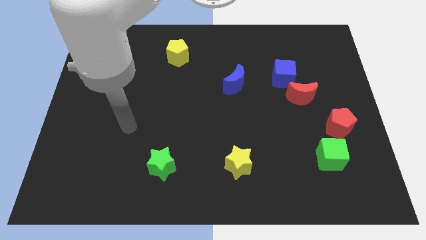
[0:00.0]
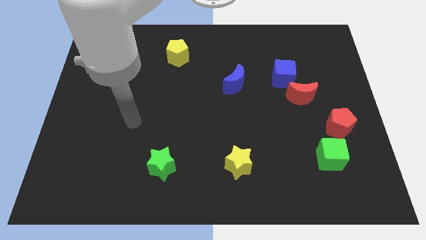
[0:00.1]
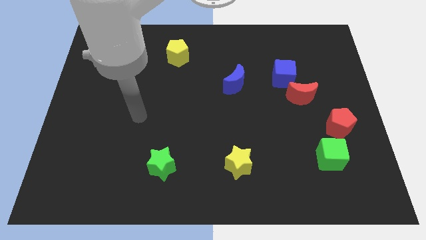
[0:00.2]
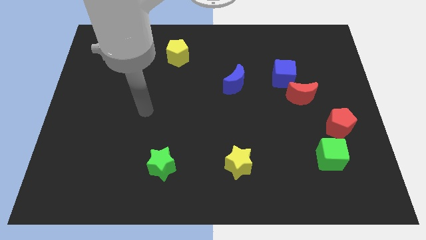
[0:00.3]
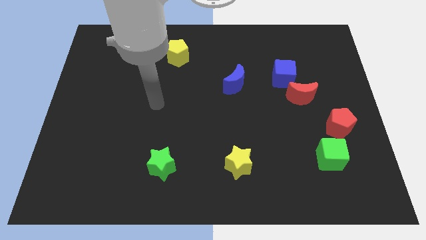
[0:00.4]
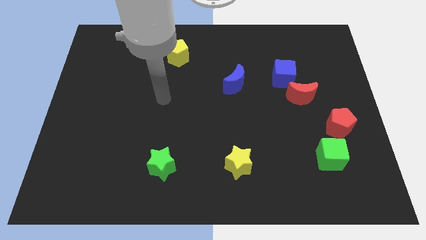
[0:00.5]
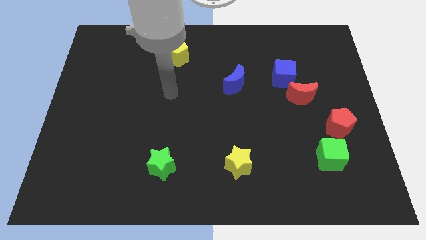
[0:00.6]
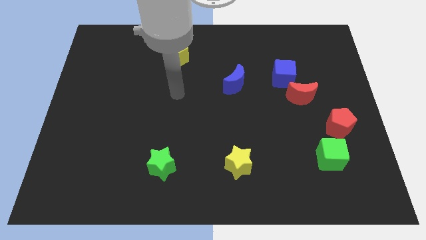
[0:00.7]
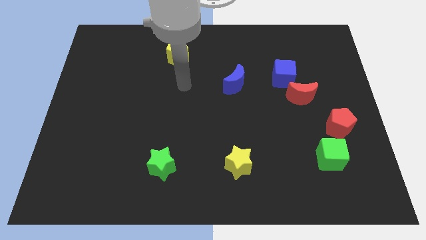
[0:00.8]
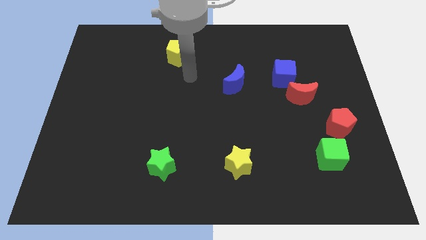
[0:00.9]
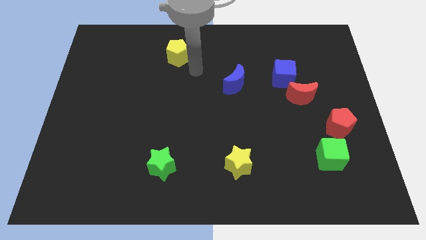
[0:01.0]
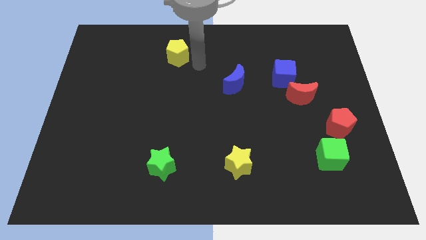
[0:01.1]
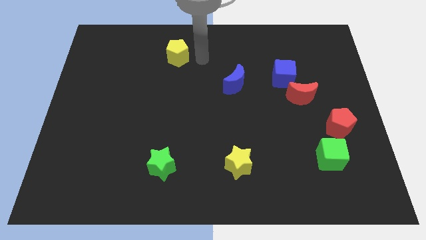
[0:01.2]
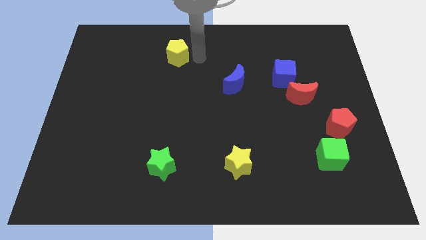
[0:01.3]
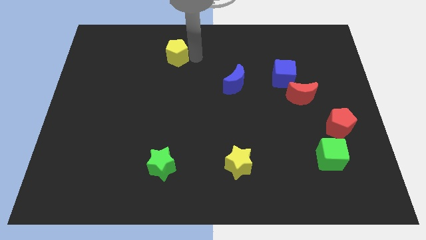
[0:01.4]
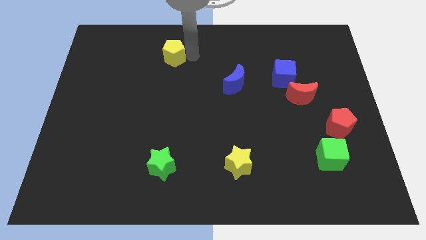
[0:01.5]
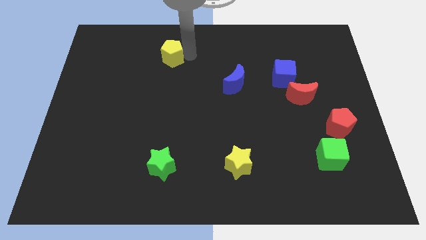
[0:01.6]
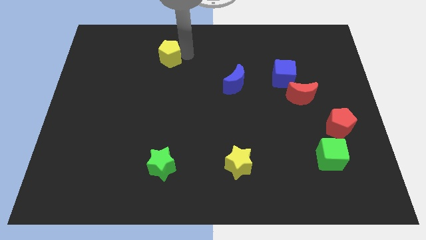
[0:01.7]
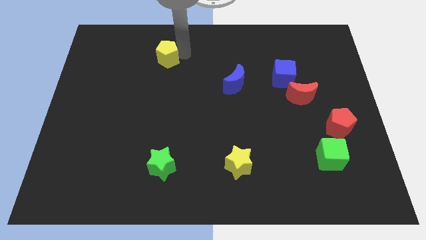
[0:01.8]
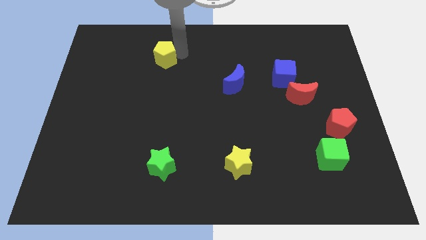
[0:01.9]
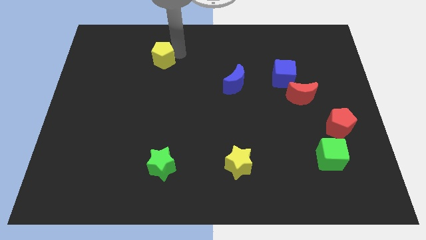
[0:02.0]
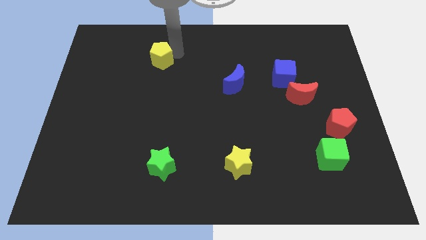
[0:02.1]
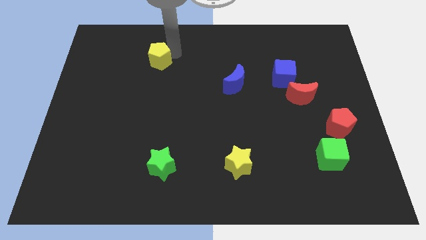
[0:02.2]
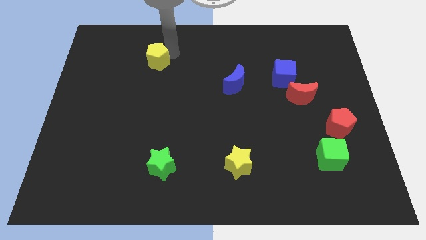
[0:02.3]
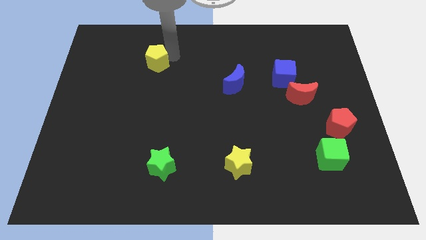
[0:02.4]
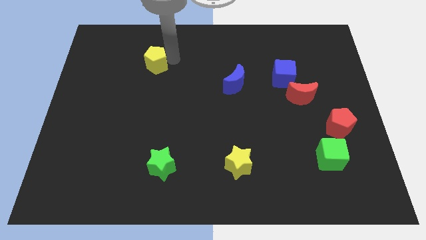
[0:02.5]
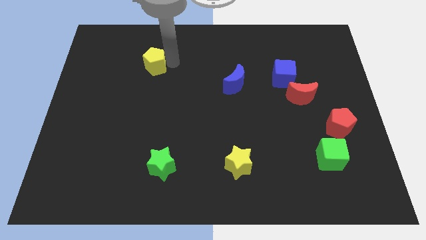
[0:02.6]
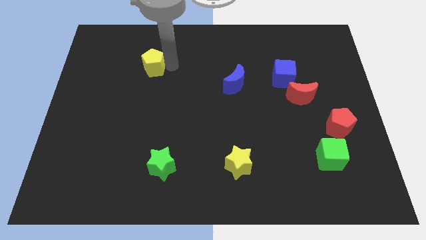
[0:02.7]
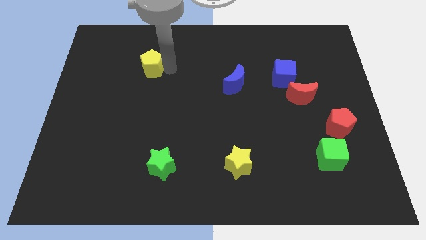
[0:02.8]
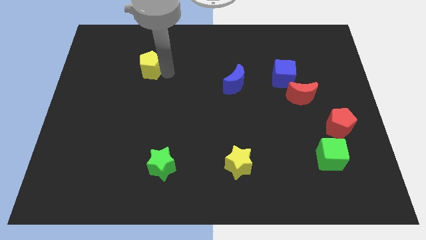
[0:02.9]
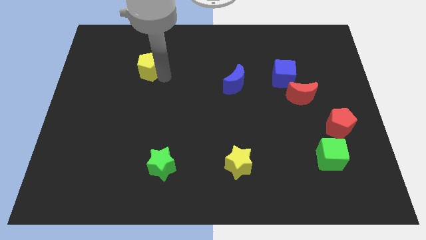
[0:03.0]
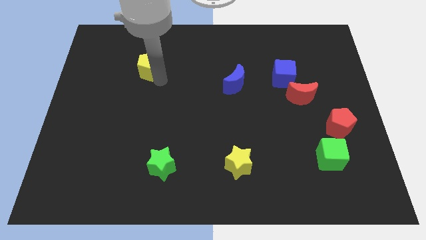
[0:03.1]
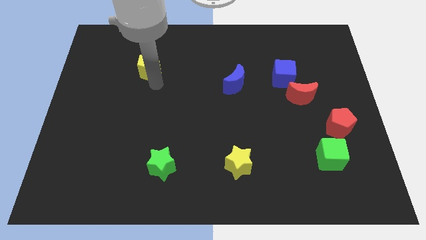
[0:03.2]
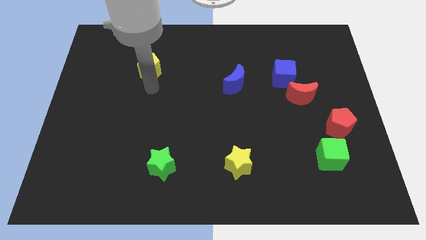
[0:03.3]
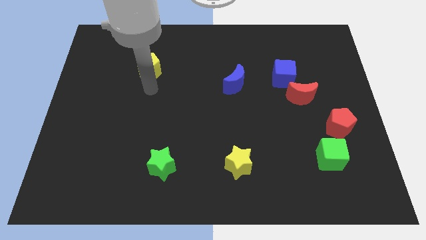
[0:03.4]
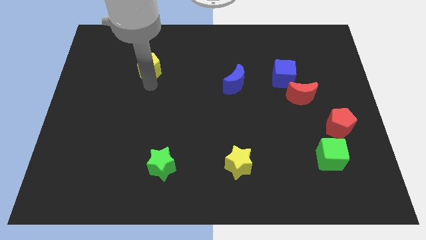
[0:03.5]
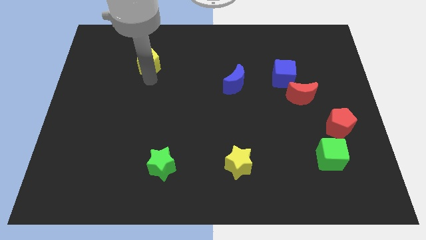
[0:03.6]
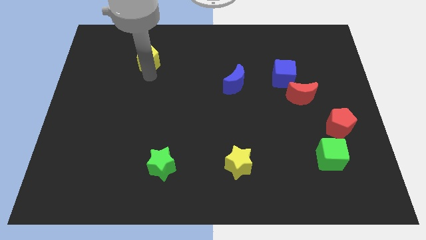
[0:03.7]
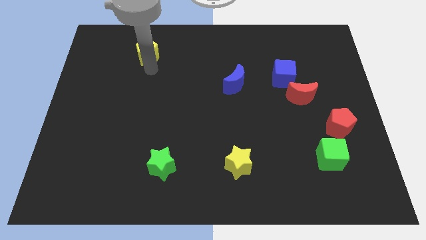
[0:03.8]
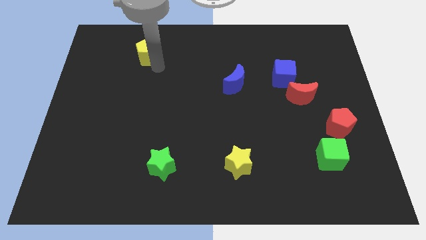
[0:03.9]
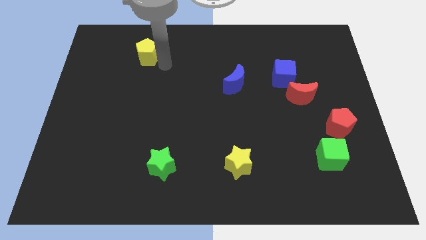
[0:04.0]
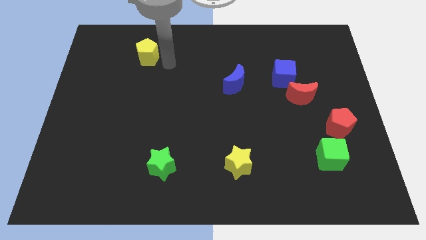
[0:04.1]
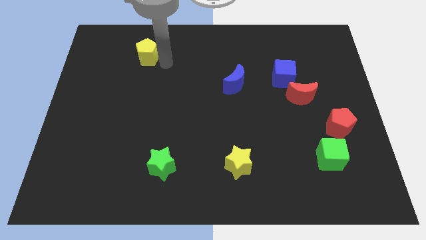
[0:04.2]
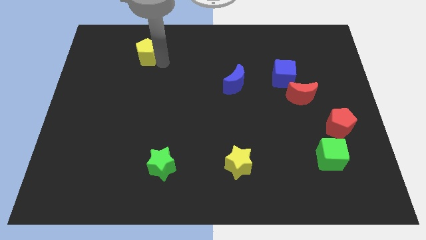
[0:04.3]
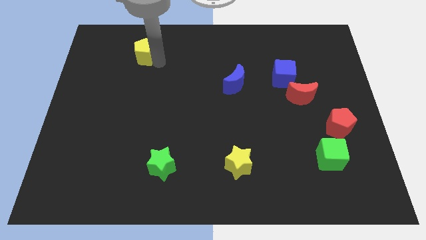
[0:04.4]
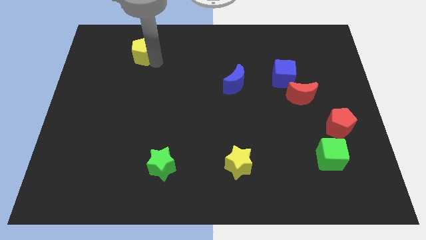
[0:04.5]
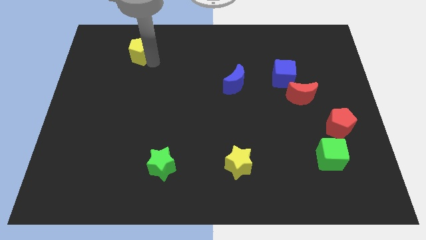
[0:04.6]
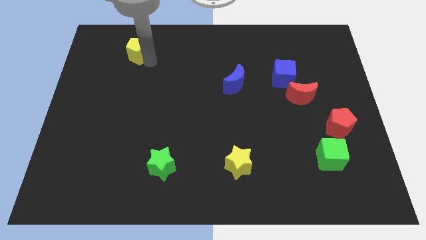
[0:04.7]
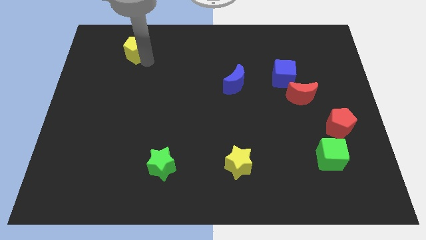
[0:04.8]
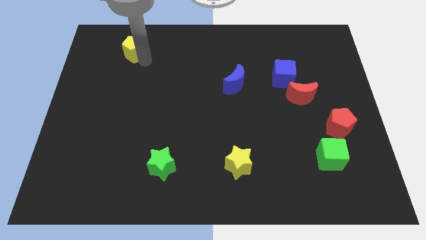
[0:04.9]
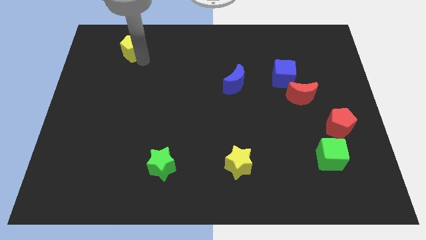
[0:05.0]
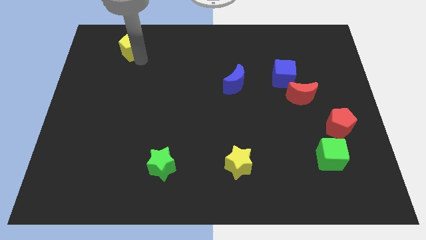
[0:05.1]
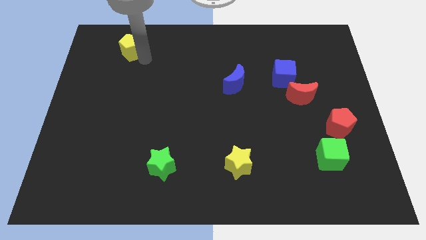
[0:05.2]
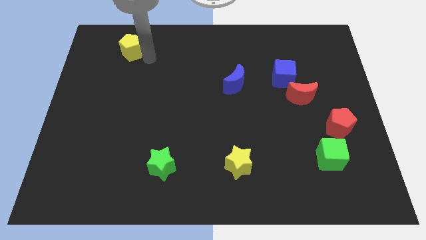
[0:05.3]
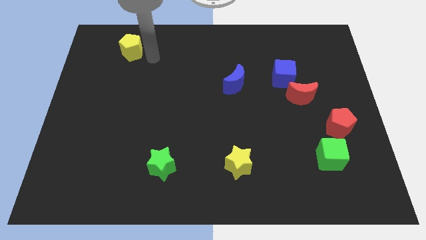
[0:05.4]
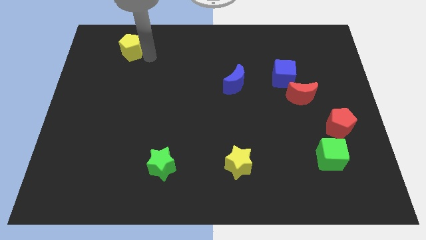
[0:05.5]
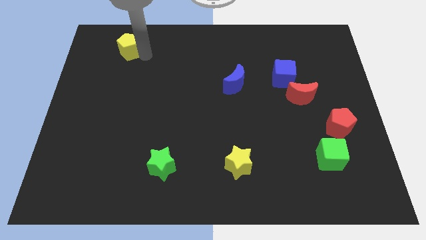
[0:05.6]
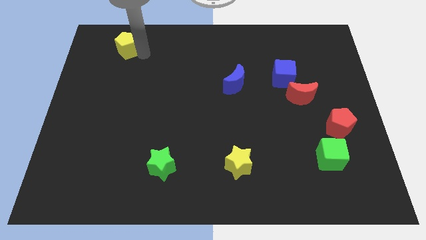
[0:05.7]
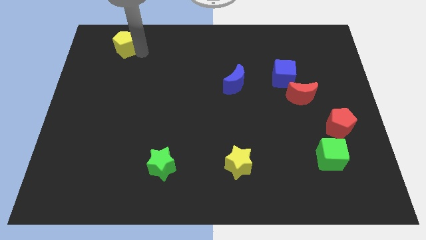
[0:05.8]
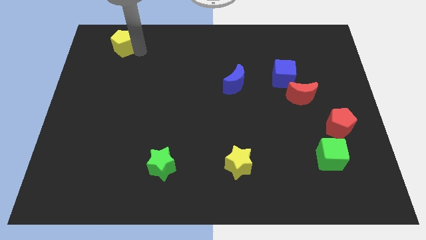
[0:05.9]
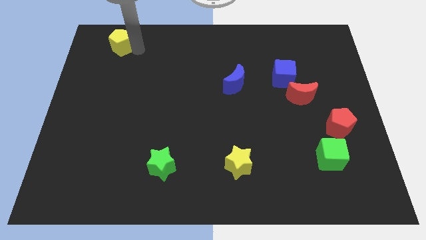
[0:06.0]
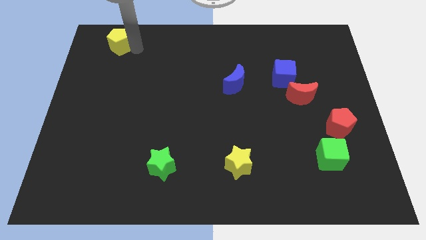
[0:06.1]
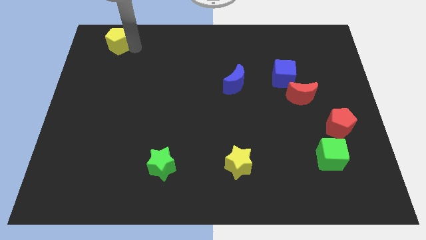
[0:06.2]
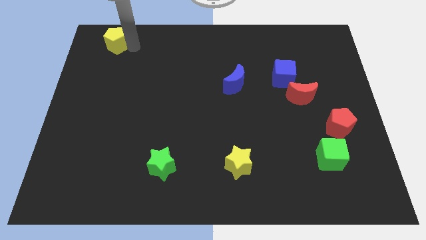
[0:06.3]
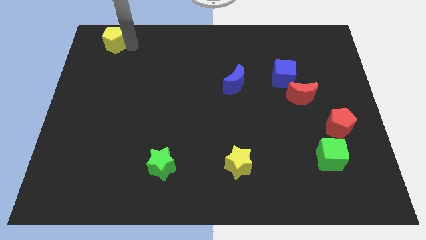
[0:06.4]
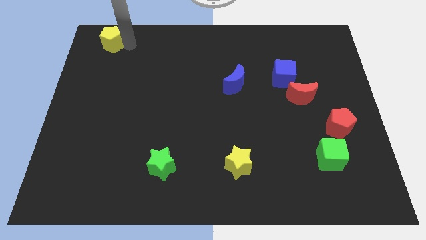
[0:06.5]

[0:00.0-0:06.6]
put the yellow pentagon to the top left of the board

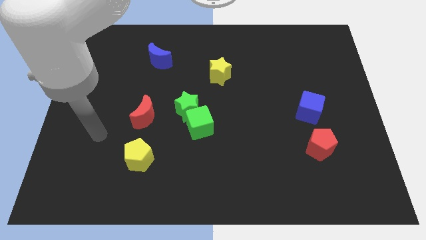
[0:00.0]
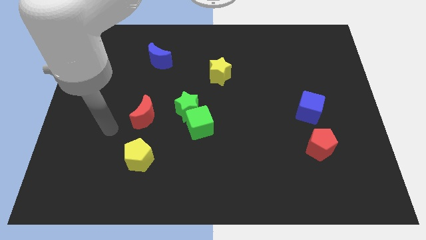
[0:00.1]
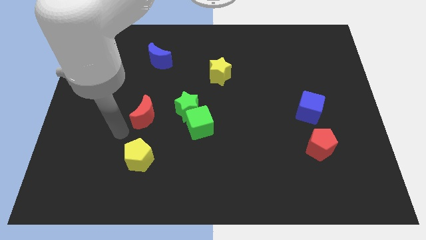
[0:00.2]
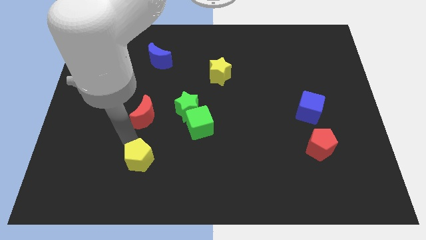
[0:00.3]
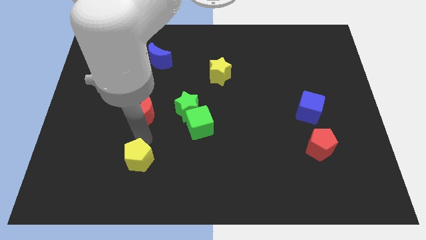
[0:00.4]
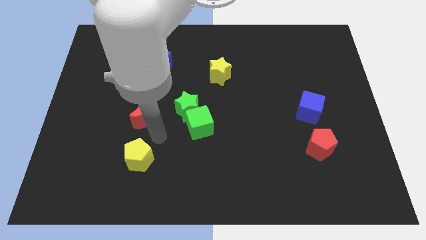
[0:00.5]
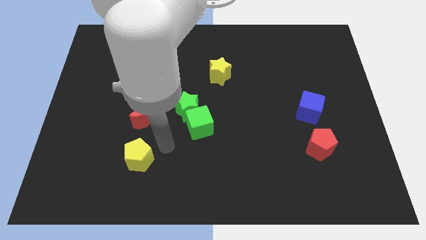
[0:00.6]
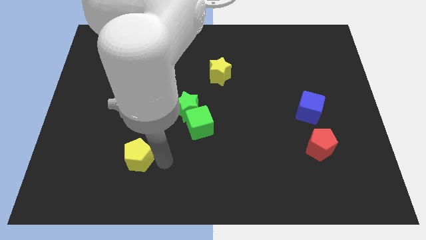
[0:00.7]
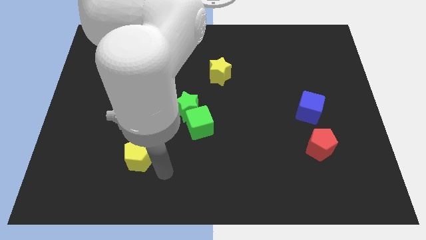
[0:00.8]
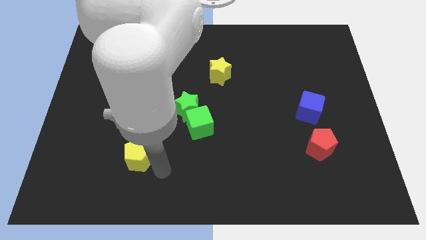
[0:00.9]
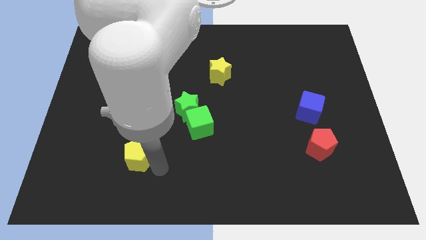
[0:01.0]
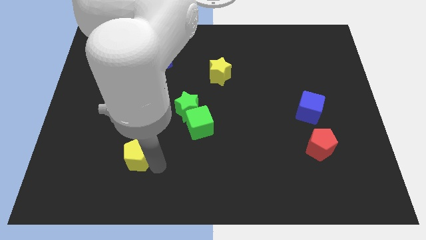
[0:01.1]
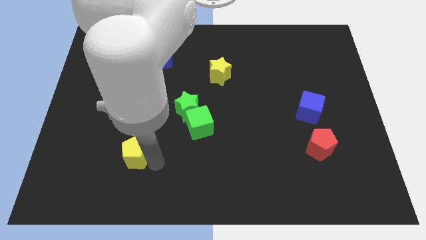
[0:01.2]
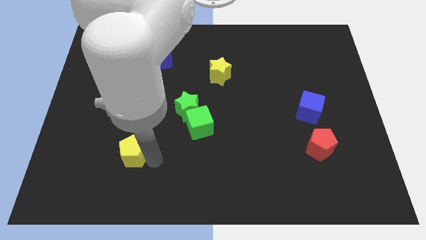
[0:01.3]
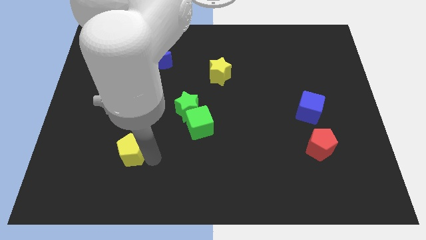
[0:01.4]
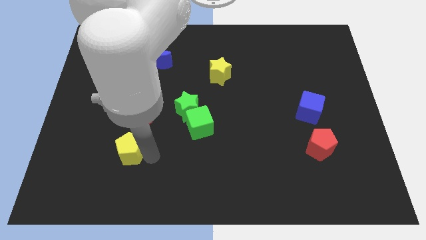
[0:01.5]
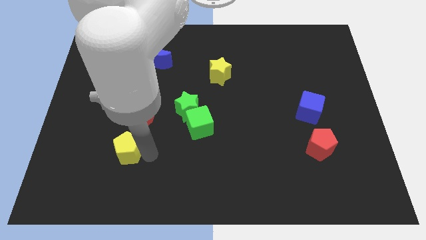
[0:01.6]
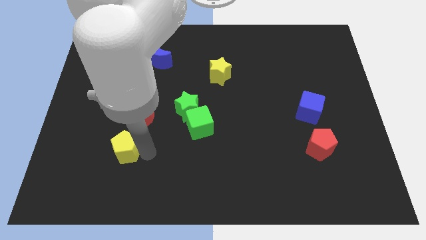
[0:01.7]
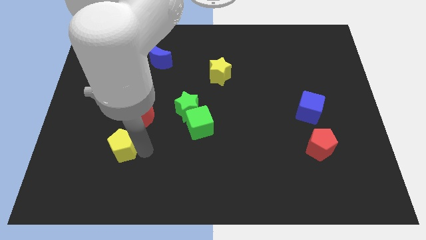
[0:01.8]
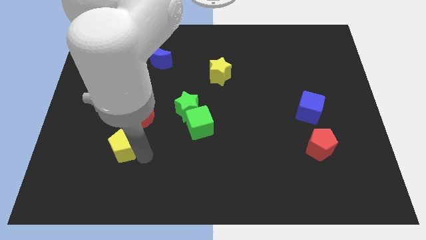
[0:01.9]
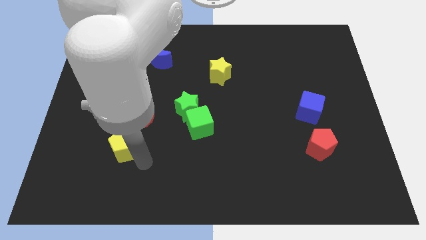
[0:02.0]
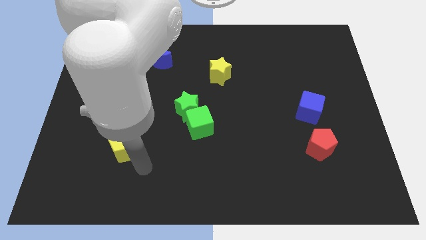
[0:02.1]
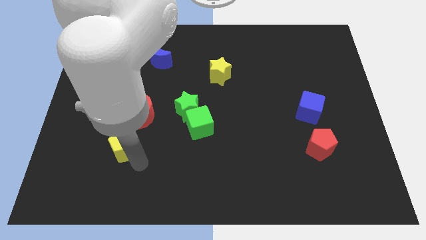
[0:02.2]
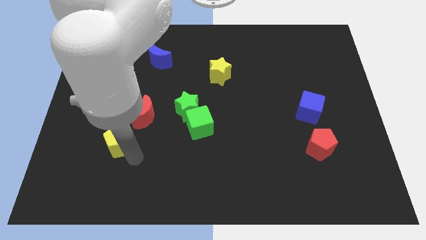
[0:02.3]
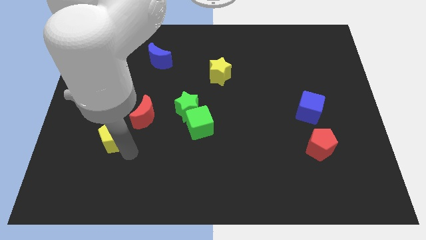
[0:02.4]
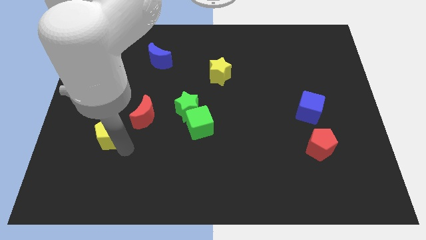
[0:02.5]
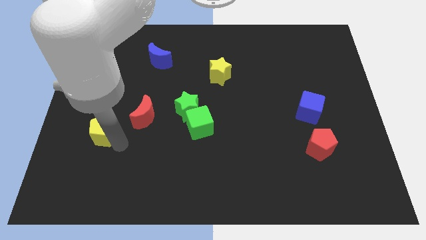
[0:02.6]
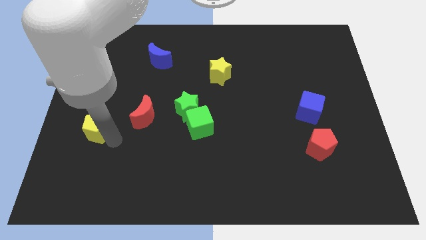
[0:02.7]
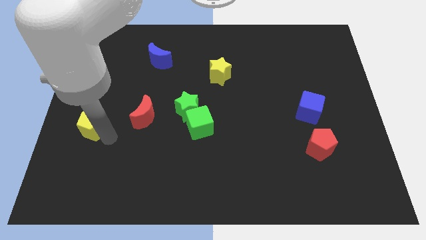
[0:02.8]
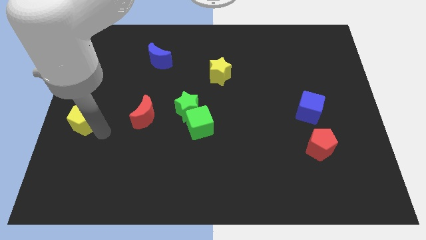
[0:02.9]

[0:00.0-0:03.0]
move the yellow pentagon to the left side of the board
